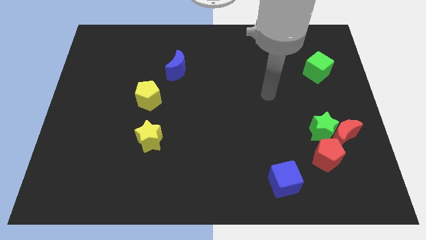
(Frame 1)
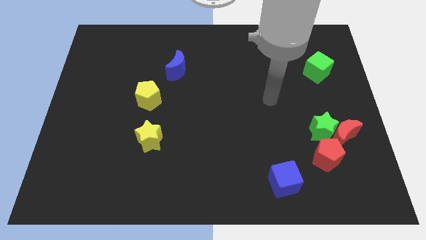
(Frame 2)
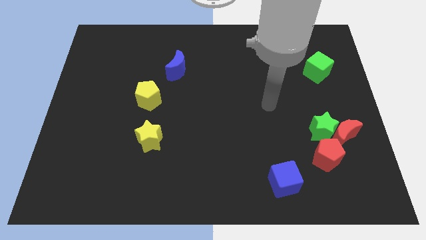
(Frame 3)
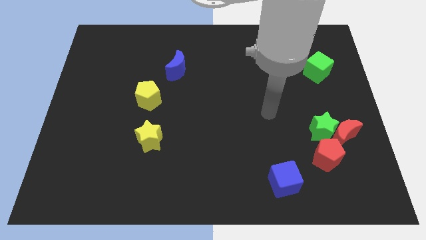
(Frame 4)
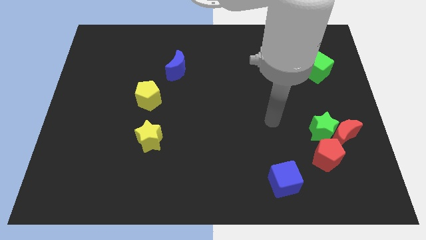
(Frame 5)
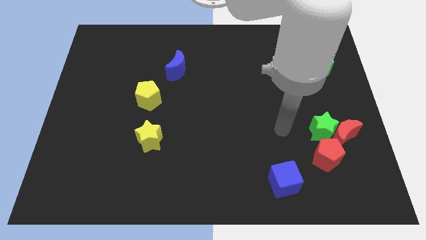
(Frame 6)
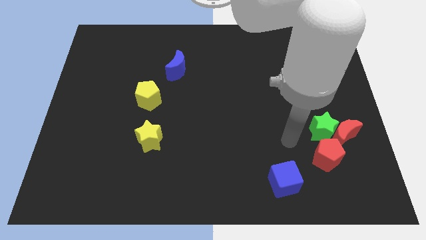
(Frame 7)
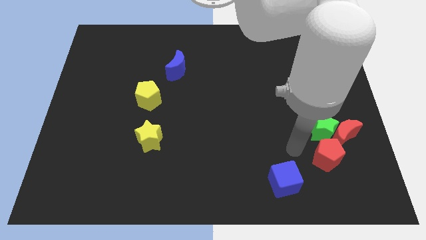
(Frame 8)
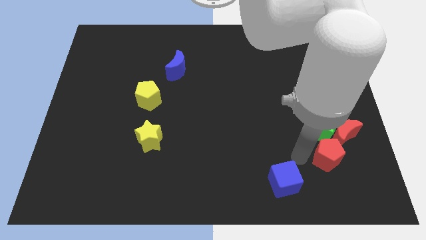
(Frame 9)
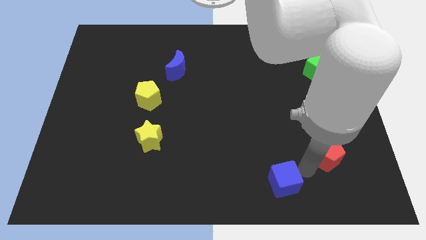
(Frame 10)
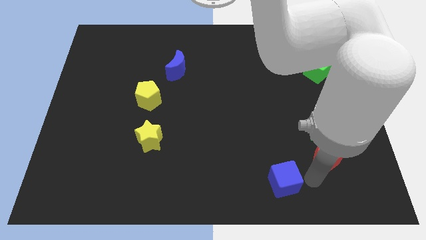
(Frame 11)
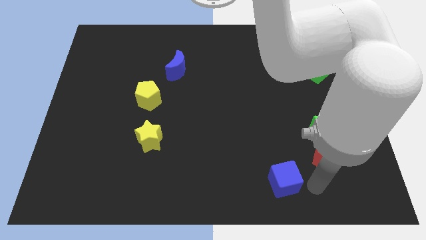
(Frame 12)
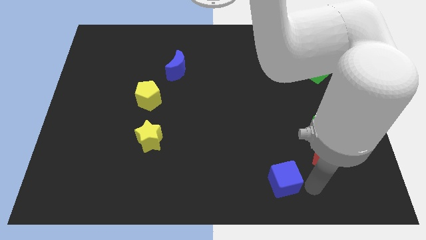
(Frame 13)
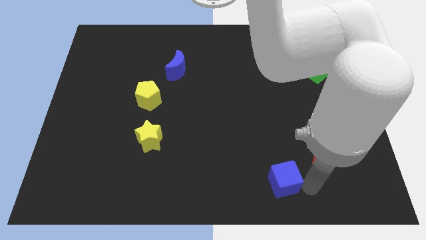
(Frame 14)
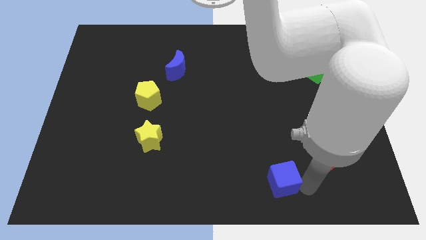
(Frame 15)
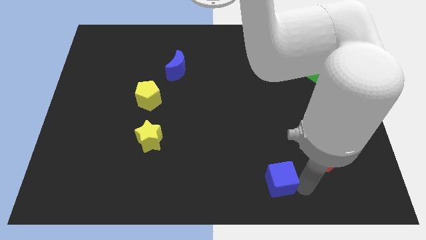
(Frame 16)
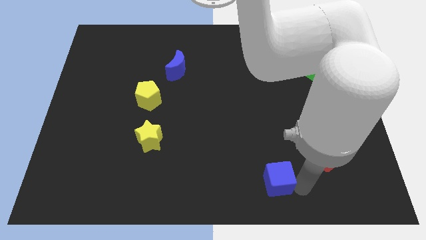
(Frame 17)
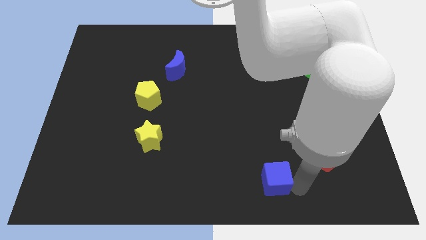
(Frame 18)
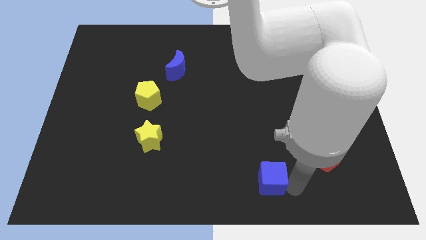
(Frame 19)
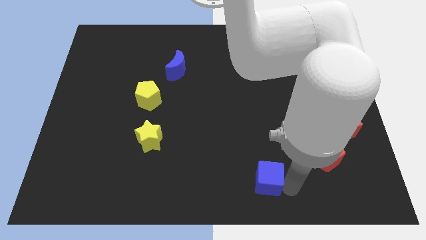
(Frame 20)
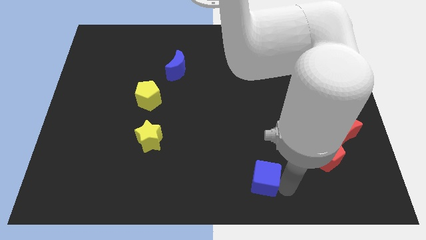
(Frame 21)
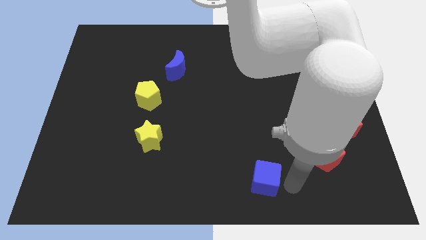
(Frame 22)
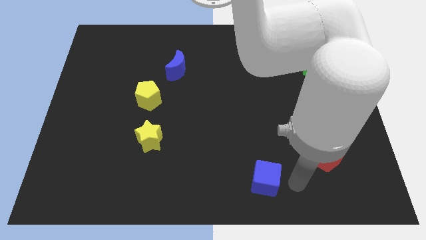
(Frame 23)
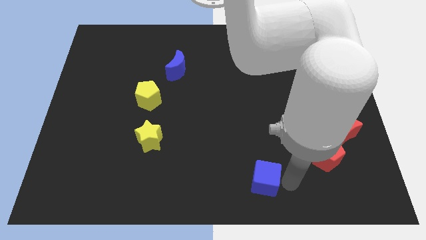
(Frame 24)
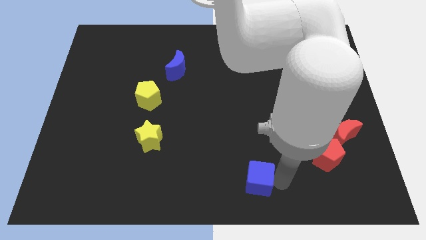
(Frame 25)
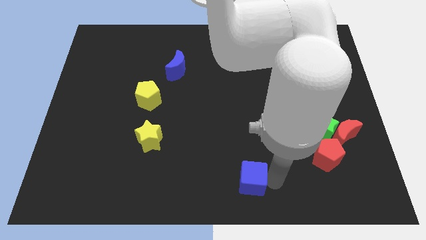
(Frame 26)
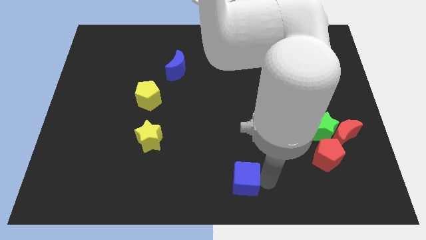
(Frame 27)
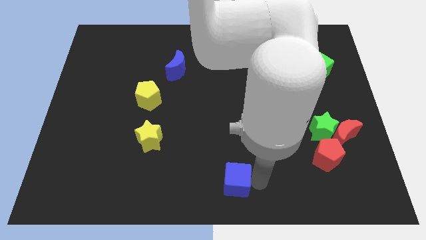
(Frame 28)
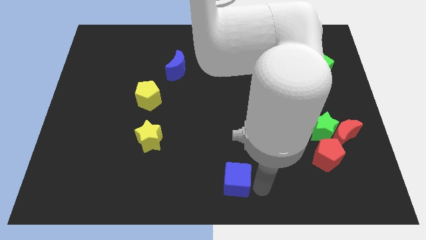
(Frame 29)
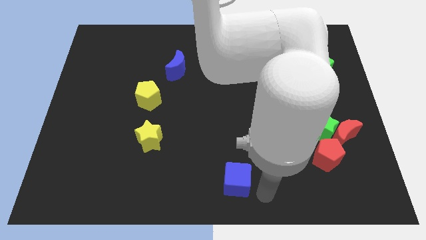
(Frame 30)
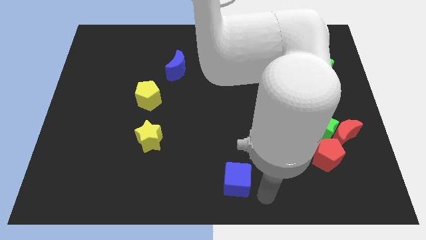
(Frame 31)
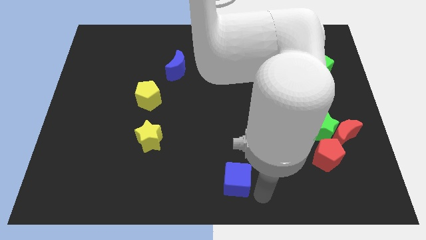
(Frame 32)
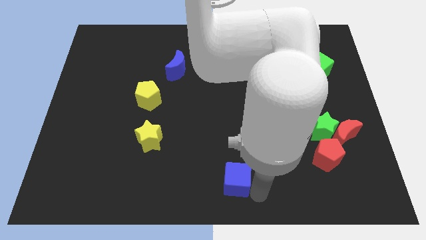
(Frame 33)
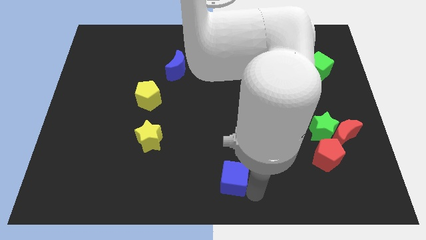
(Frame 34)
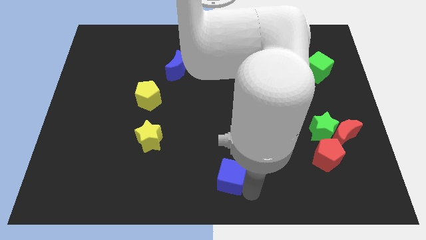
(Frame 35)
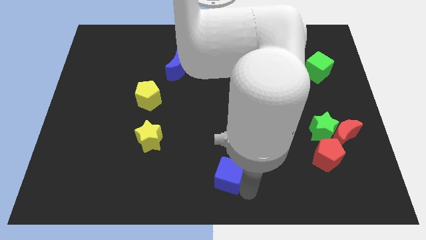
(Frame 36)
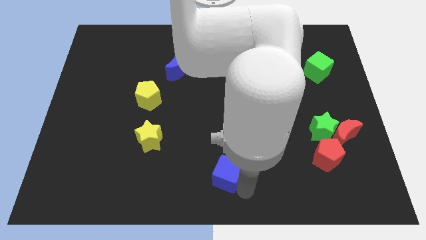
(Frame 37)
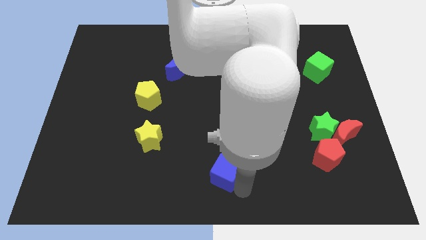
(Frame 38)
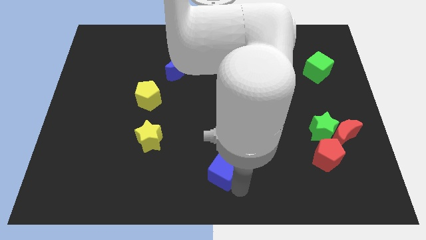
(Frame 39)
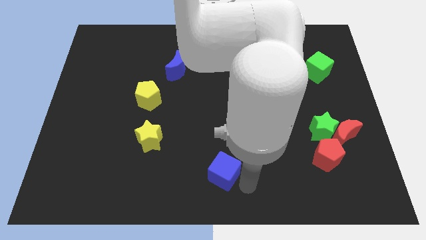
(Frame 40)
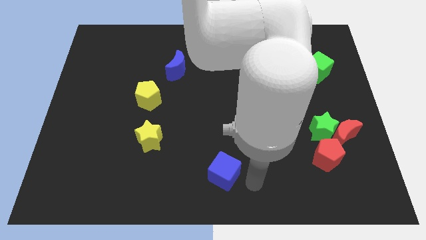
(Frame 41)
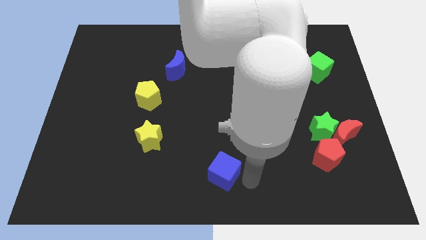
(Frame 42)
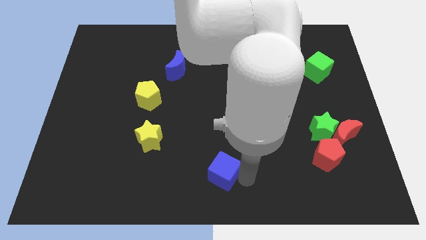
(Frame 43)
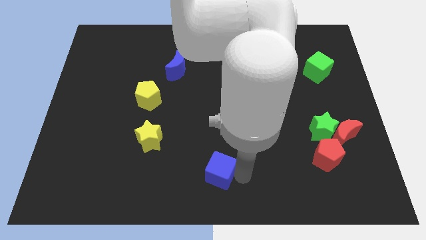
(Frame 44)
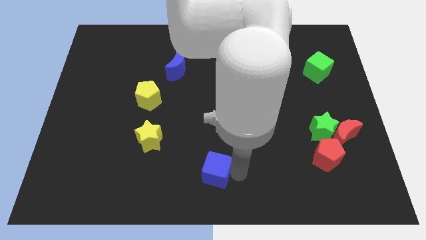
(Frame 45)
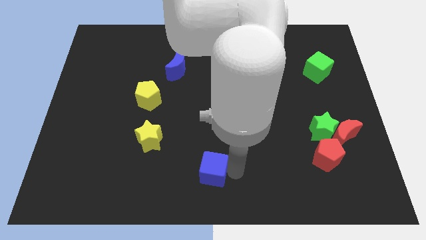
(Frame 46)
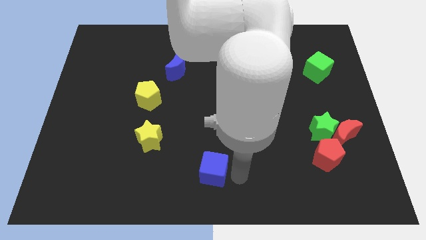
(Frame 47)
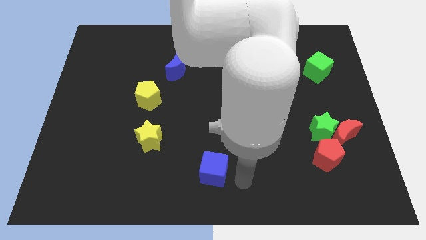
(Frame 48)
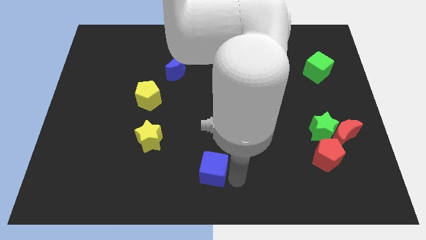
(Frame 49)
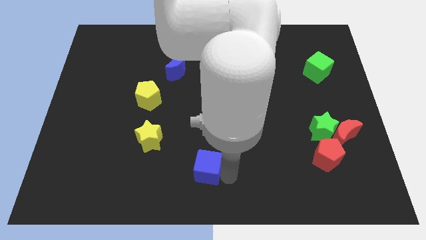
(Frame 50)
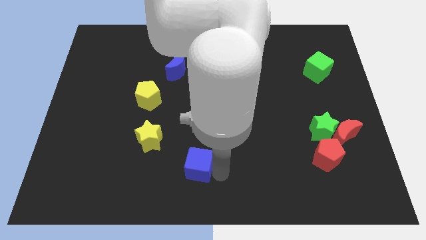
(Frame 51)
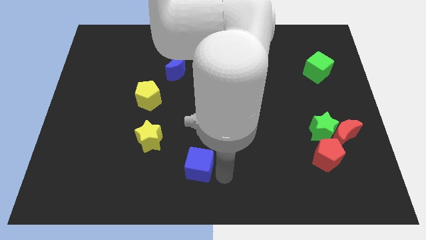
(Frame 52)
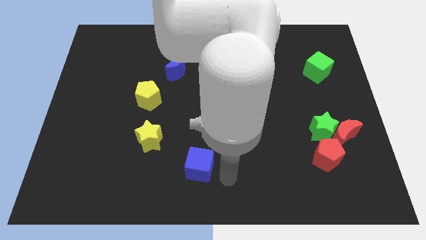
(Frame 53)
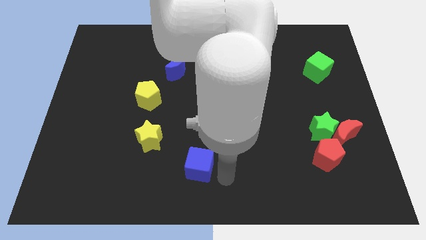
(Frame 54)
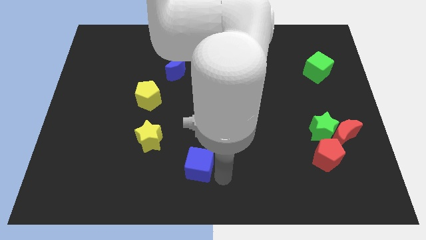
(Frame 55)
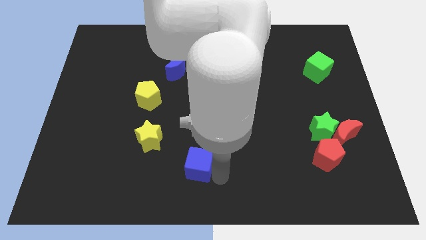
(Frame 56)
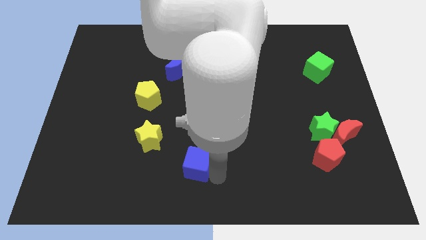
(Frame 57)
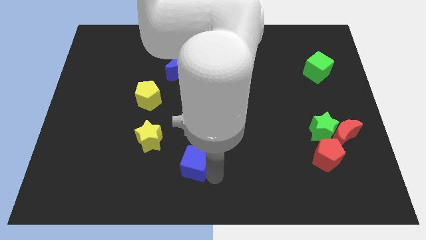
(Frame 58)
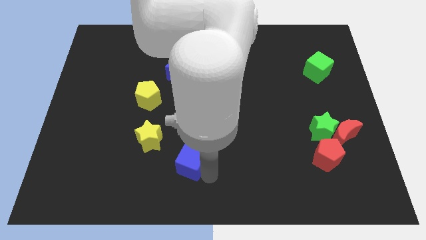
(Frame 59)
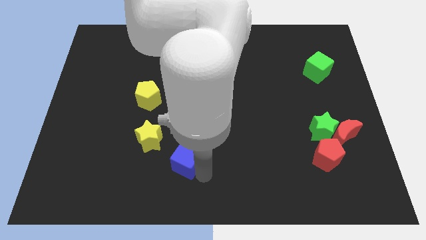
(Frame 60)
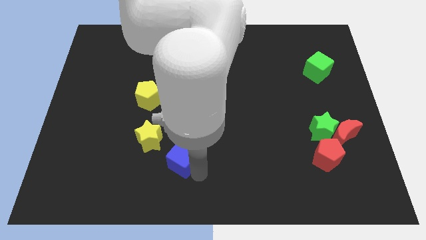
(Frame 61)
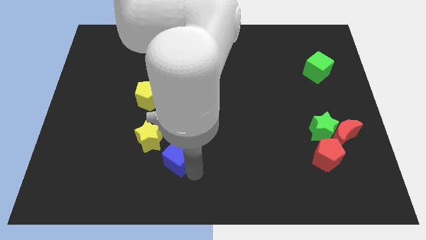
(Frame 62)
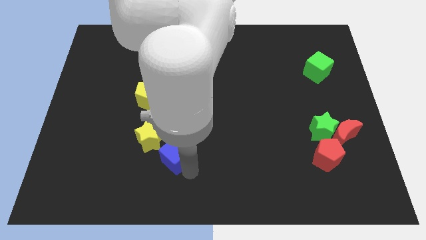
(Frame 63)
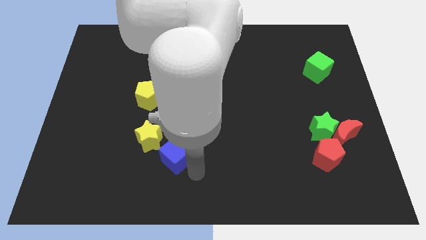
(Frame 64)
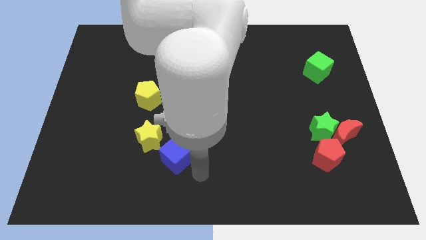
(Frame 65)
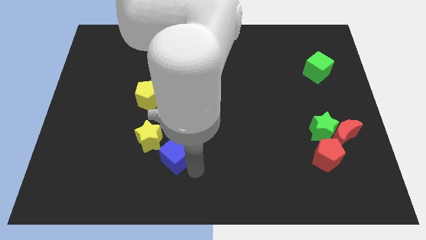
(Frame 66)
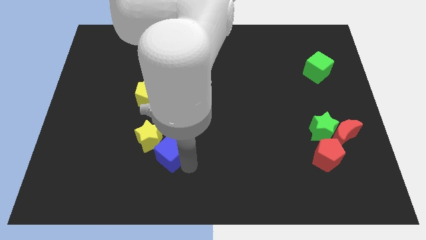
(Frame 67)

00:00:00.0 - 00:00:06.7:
move the blue cube to the yellow star

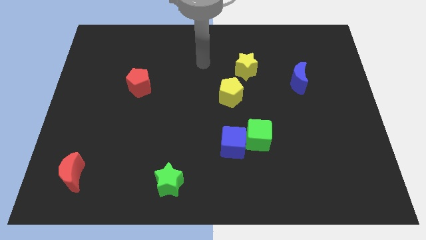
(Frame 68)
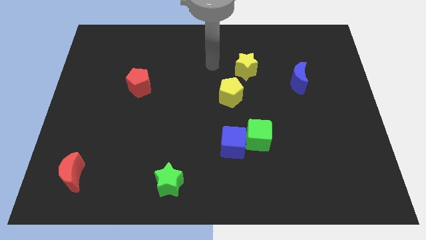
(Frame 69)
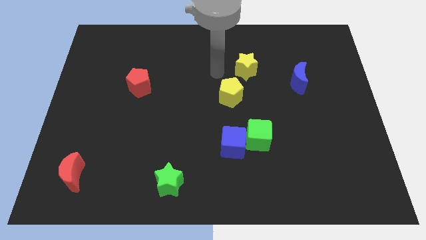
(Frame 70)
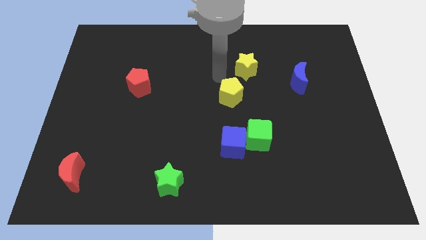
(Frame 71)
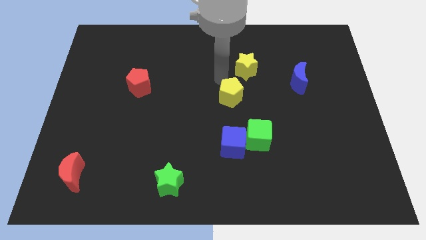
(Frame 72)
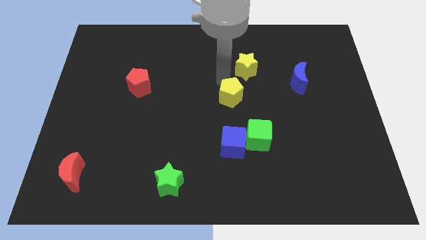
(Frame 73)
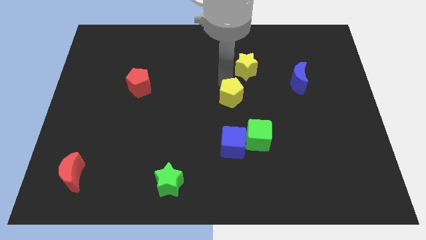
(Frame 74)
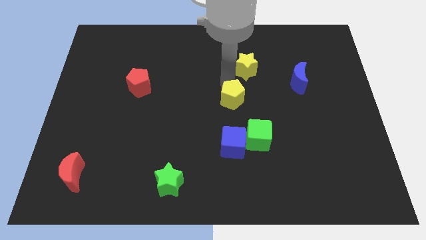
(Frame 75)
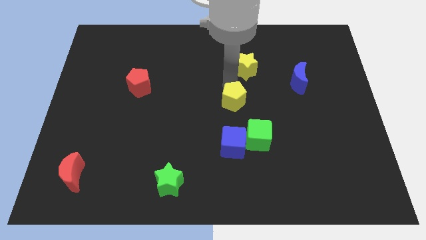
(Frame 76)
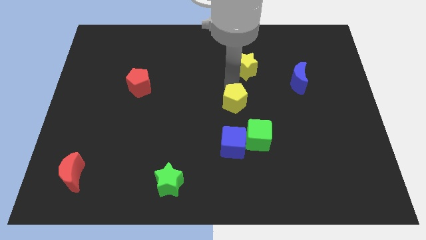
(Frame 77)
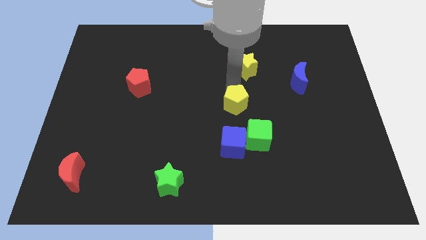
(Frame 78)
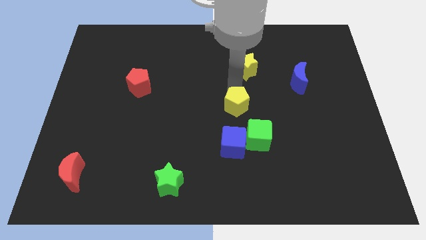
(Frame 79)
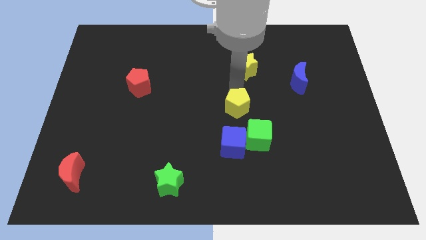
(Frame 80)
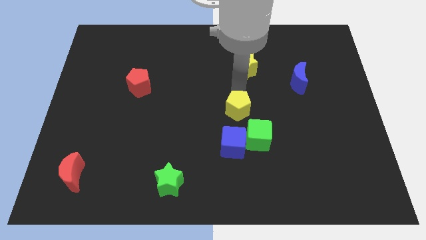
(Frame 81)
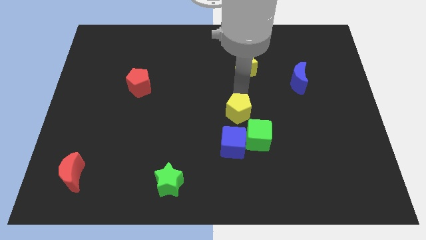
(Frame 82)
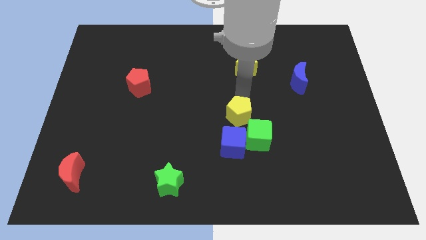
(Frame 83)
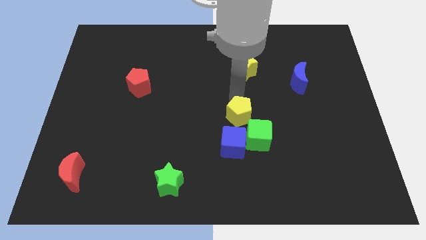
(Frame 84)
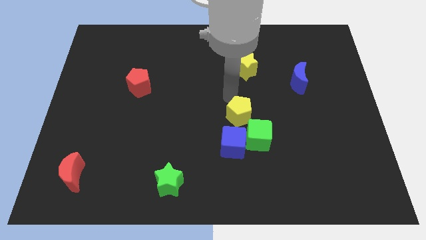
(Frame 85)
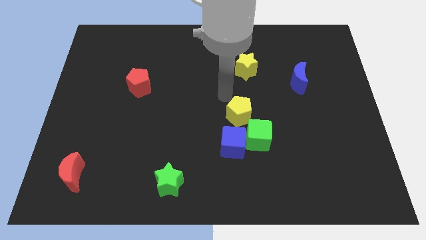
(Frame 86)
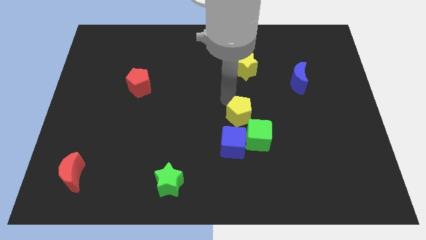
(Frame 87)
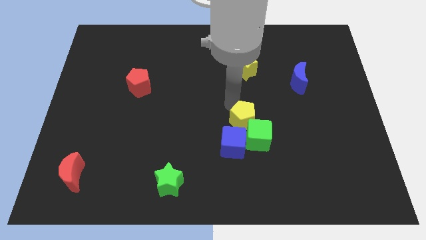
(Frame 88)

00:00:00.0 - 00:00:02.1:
move the yellow pentagon towards the green cube
